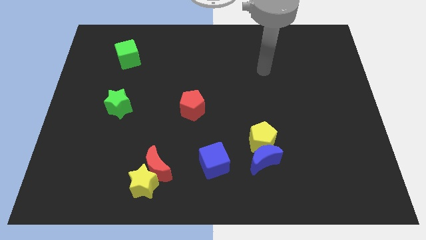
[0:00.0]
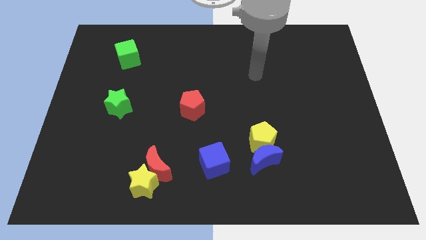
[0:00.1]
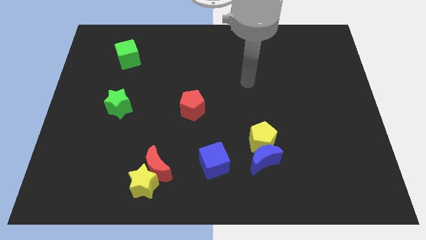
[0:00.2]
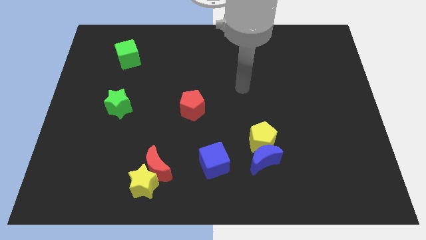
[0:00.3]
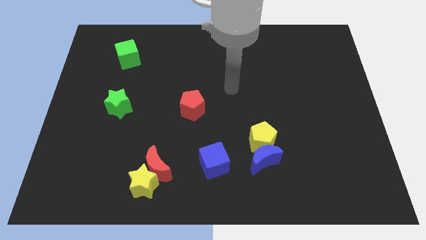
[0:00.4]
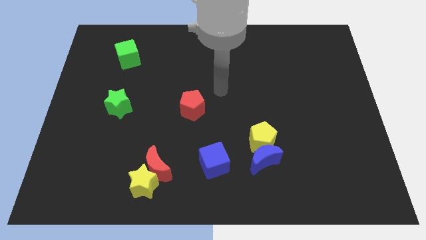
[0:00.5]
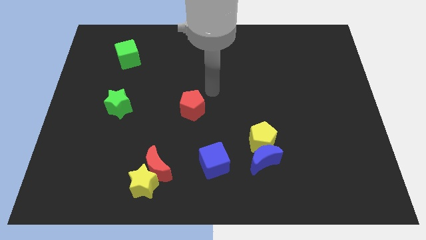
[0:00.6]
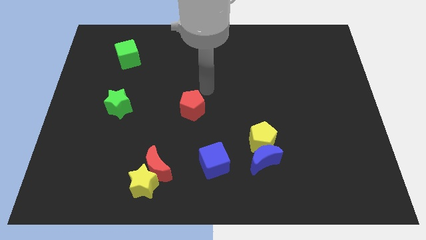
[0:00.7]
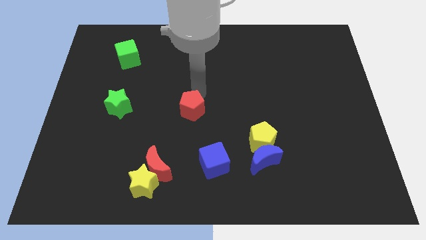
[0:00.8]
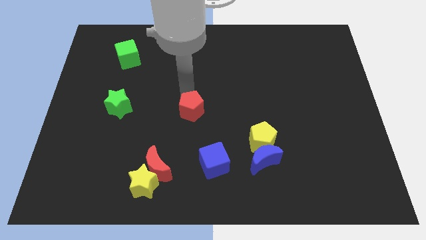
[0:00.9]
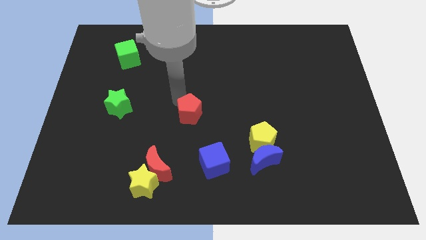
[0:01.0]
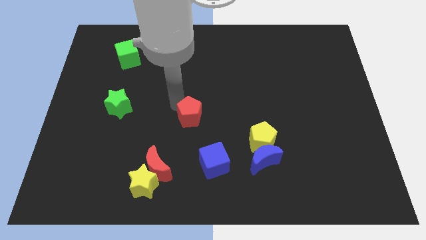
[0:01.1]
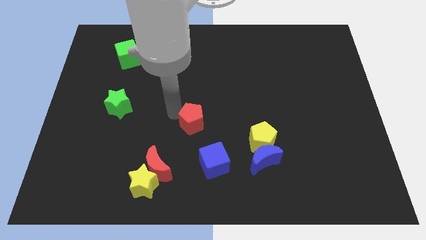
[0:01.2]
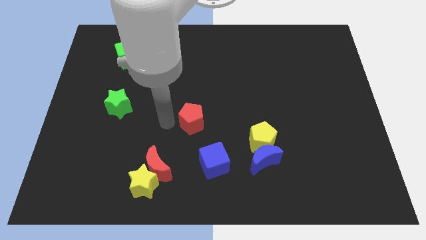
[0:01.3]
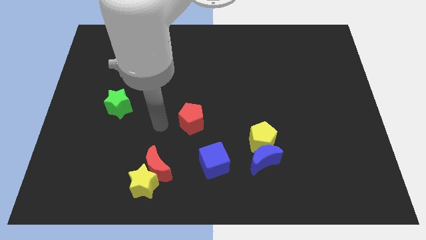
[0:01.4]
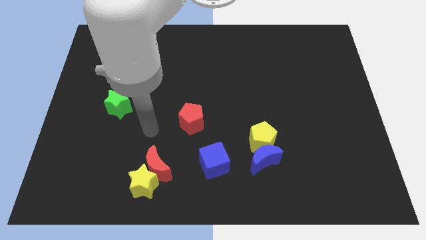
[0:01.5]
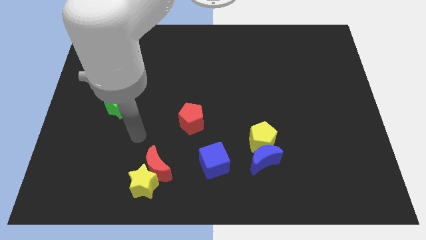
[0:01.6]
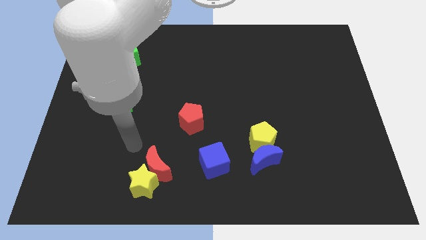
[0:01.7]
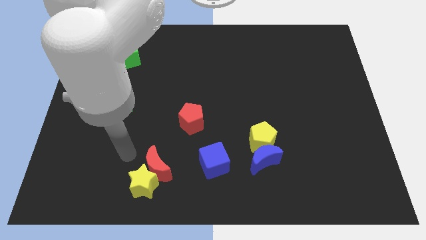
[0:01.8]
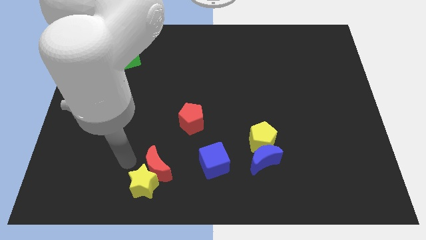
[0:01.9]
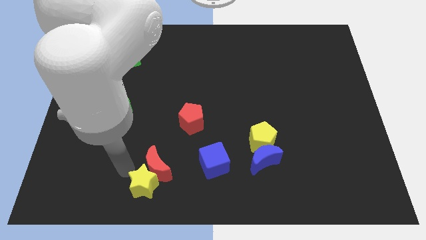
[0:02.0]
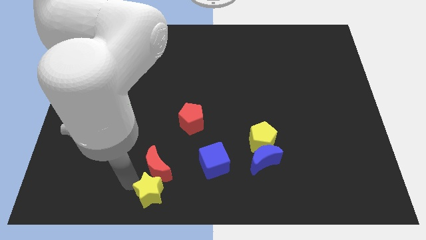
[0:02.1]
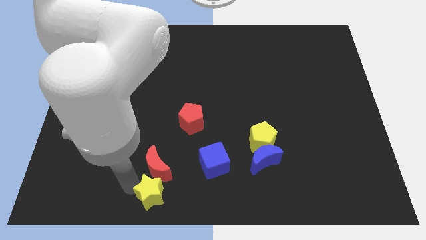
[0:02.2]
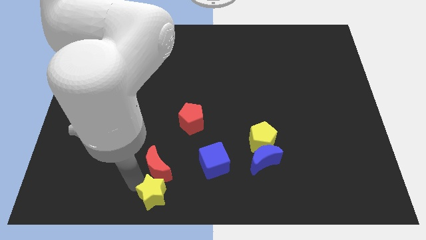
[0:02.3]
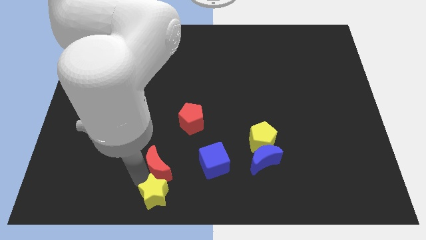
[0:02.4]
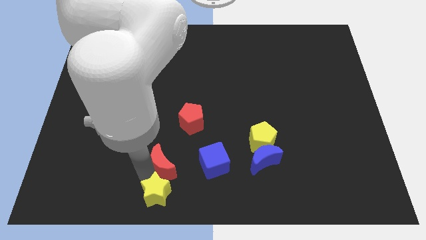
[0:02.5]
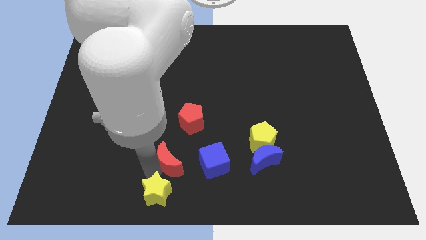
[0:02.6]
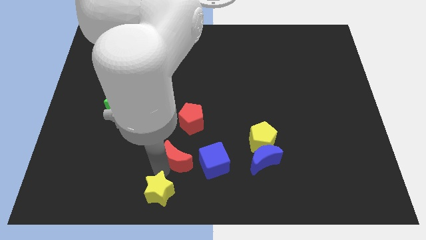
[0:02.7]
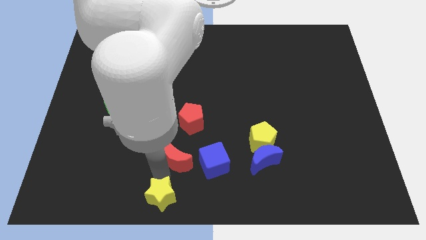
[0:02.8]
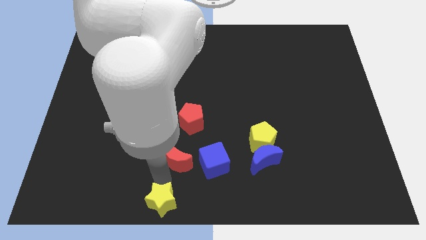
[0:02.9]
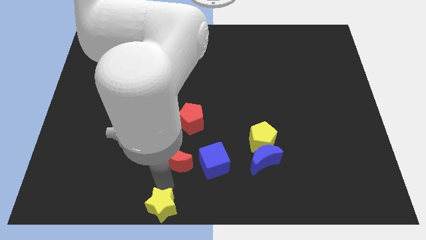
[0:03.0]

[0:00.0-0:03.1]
separate the red moon from the yellow star

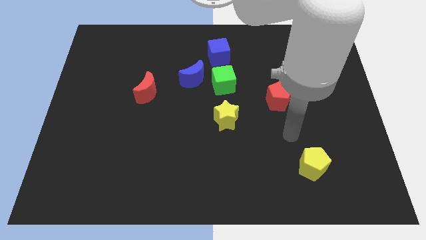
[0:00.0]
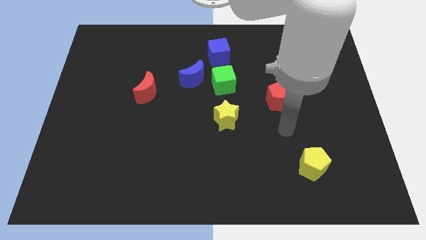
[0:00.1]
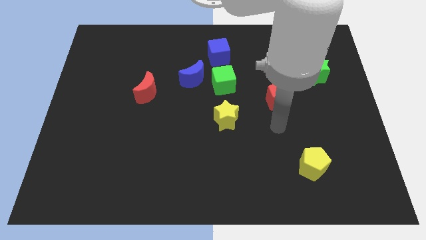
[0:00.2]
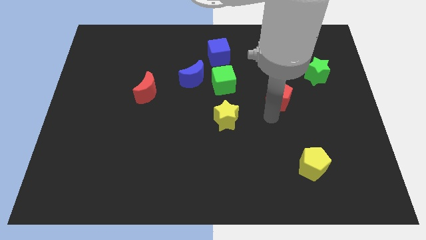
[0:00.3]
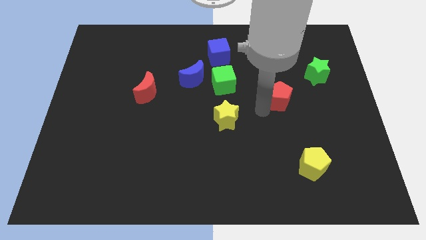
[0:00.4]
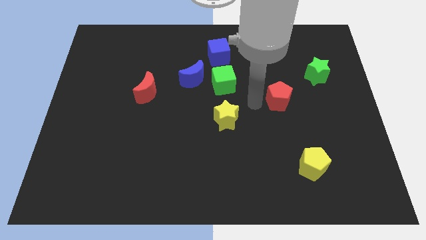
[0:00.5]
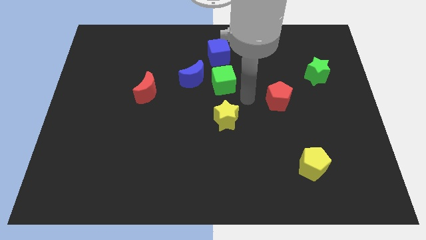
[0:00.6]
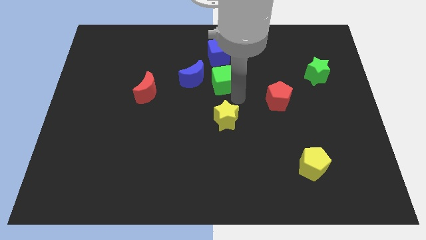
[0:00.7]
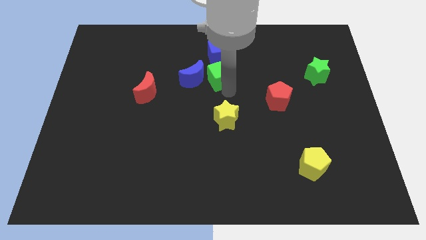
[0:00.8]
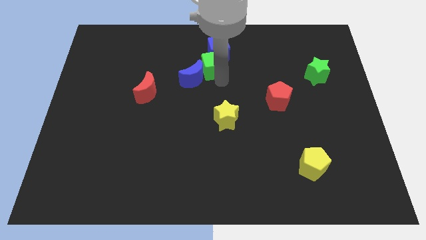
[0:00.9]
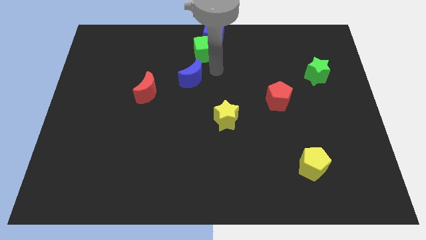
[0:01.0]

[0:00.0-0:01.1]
move the blue moon away from the green cube

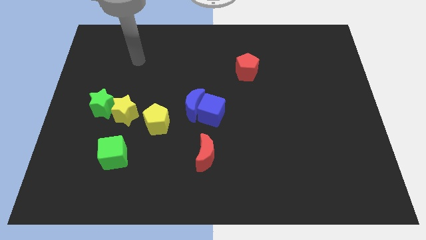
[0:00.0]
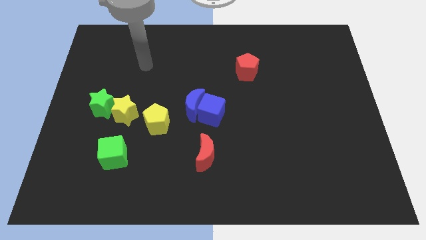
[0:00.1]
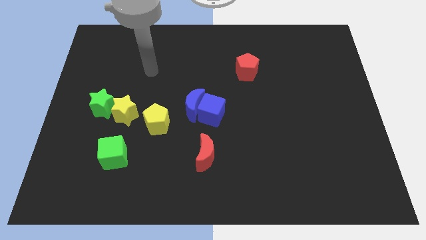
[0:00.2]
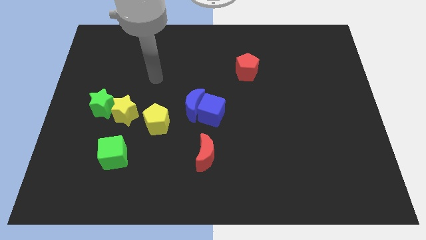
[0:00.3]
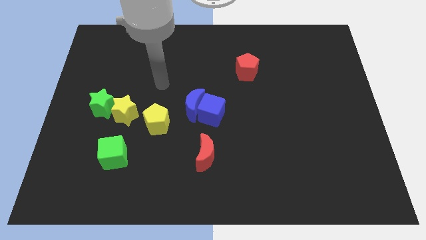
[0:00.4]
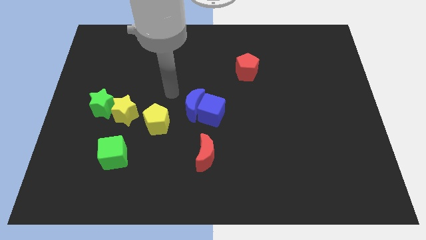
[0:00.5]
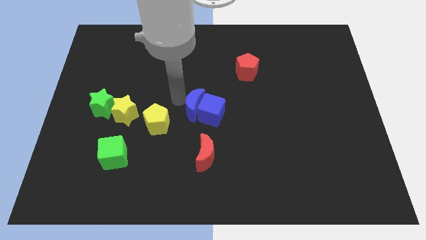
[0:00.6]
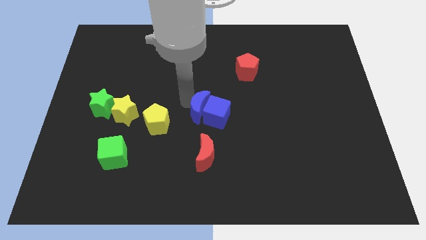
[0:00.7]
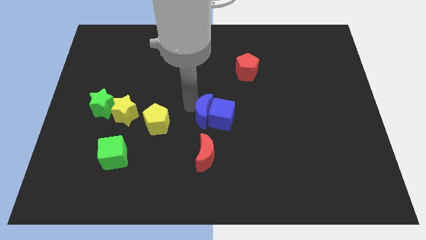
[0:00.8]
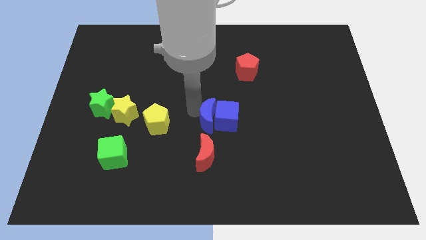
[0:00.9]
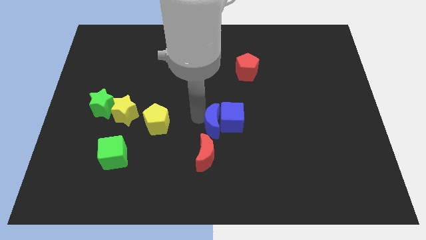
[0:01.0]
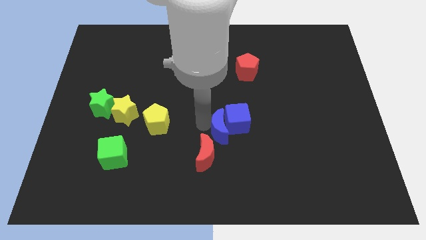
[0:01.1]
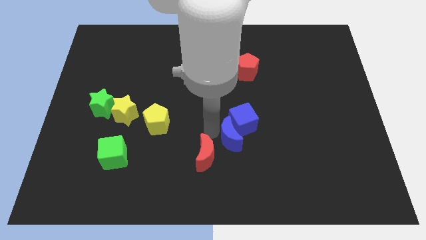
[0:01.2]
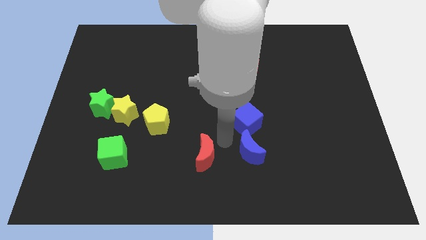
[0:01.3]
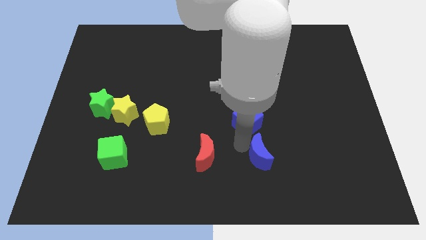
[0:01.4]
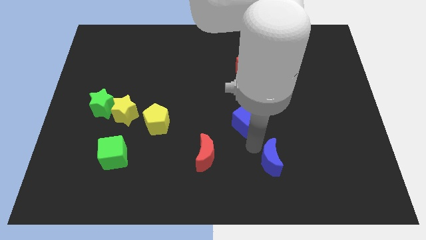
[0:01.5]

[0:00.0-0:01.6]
move the blue cube away from the blue moon

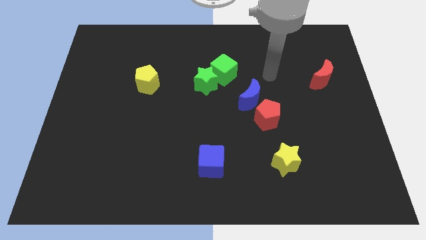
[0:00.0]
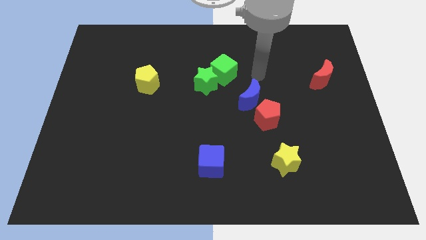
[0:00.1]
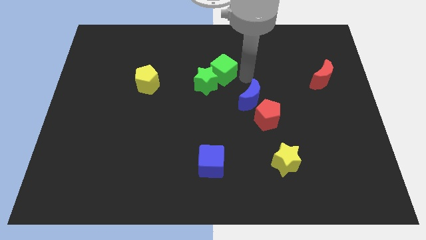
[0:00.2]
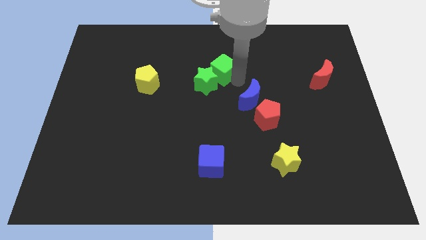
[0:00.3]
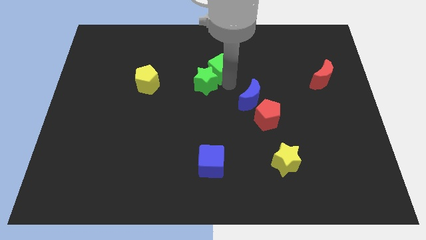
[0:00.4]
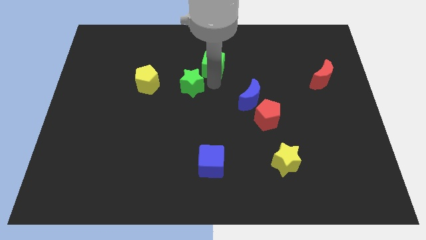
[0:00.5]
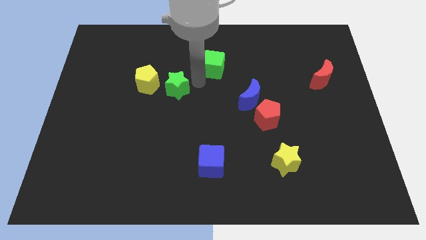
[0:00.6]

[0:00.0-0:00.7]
separate the green cube from the green star

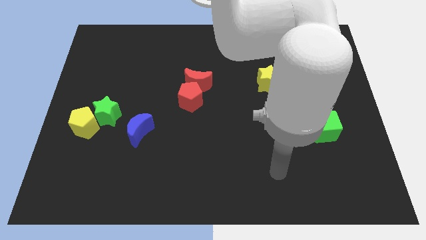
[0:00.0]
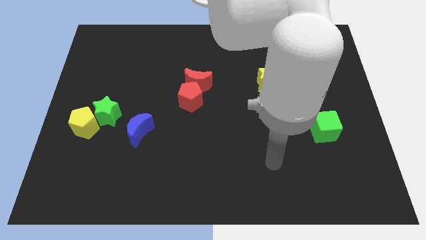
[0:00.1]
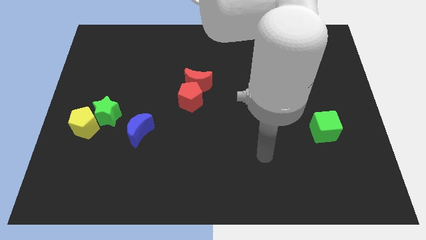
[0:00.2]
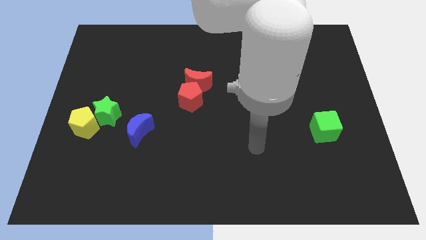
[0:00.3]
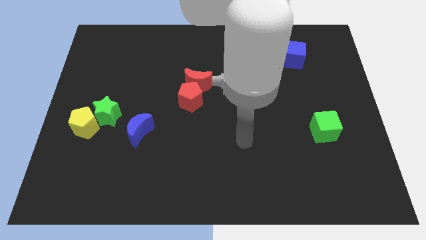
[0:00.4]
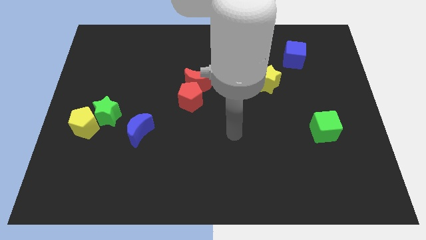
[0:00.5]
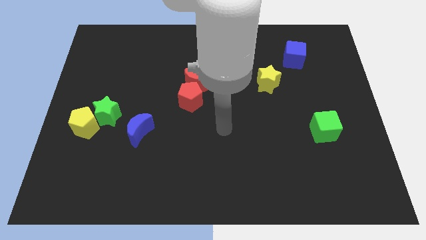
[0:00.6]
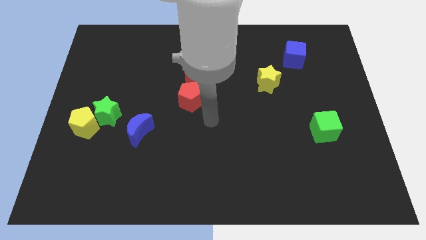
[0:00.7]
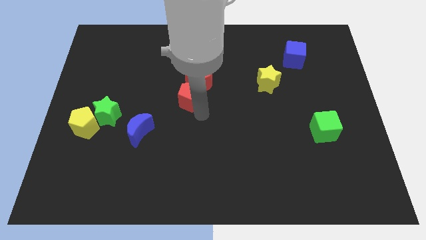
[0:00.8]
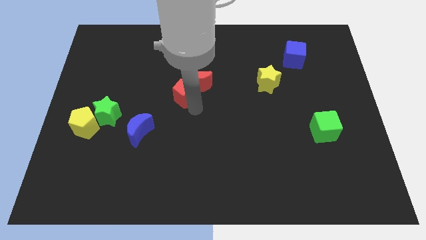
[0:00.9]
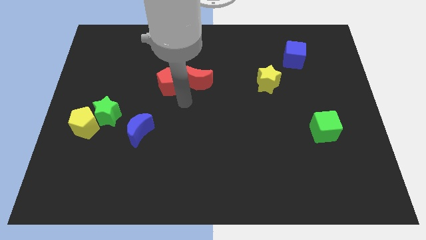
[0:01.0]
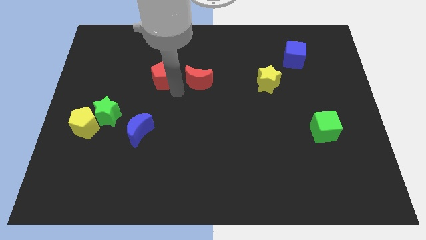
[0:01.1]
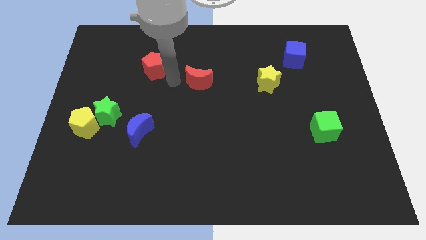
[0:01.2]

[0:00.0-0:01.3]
move the red moon away from the red pentagon

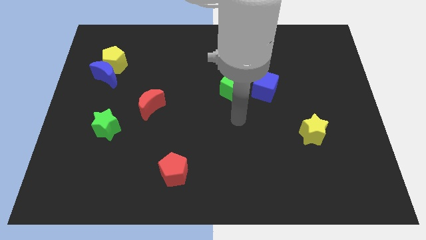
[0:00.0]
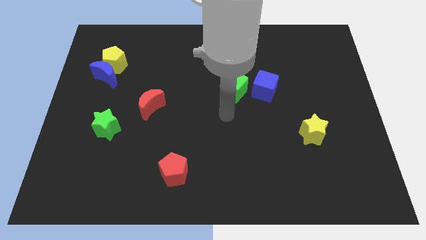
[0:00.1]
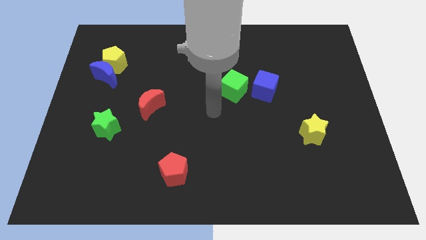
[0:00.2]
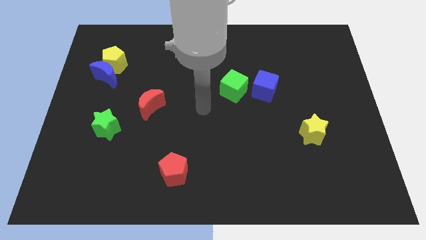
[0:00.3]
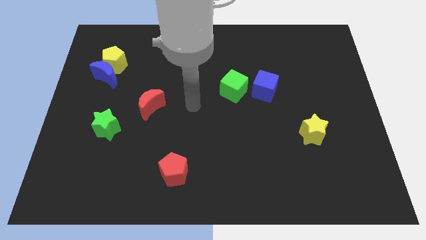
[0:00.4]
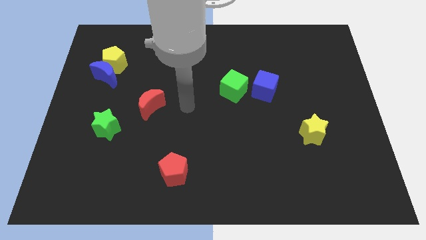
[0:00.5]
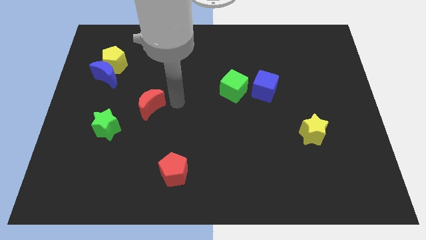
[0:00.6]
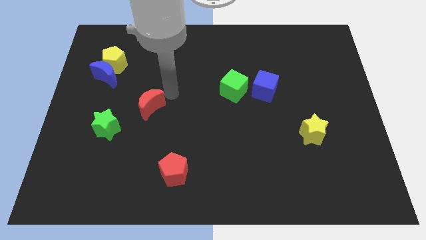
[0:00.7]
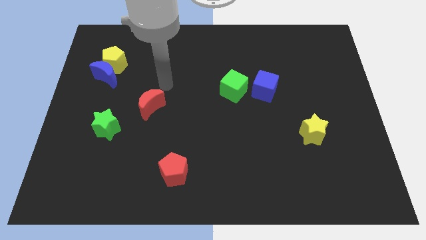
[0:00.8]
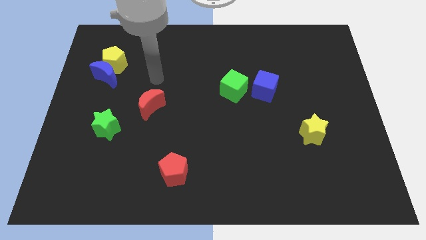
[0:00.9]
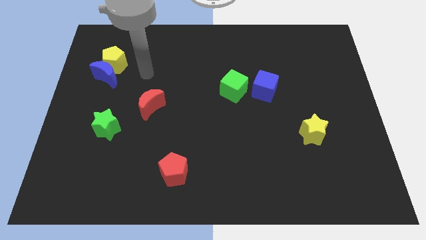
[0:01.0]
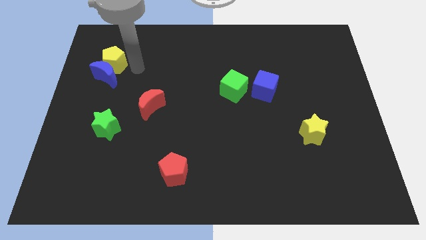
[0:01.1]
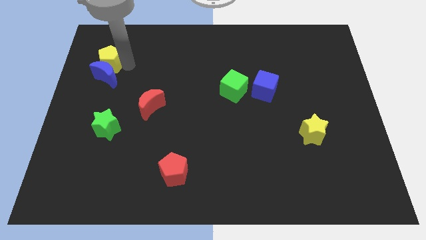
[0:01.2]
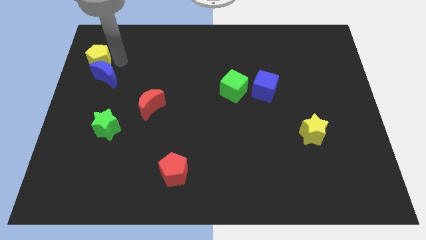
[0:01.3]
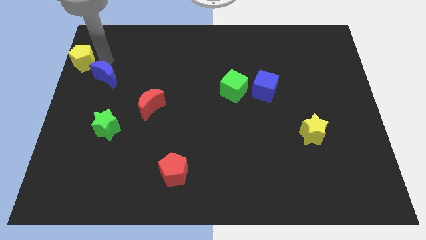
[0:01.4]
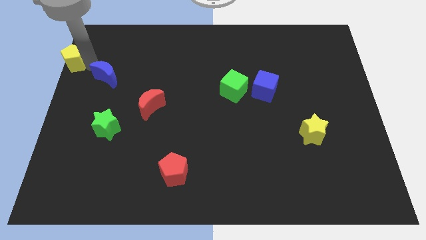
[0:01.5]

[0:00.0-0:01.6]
separate the blue moon from the yellow pentagon

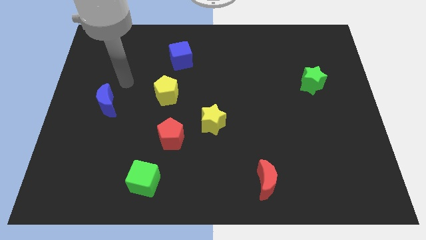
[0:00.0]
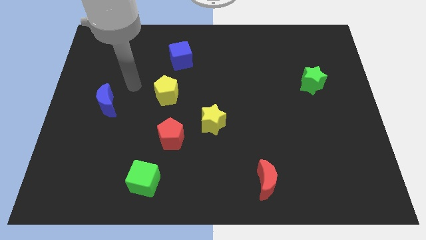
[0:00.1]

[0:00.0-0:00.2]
pull the red pentagon apart from the yellow star
